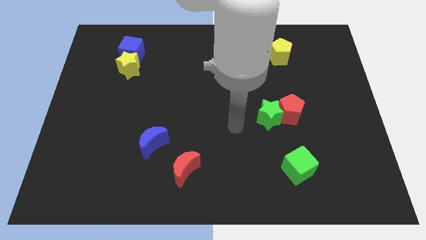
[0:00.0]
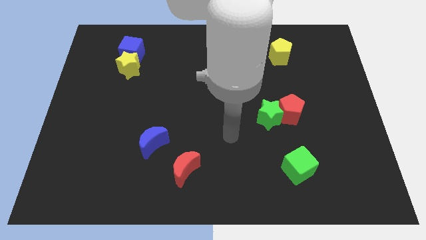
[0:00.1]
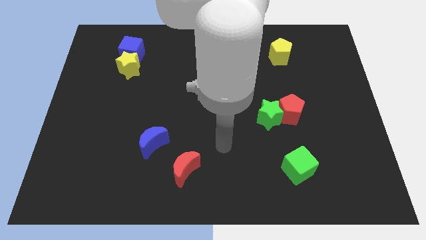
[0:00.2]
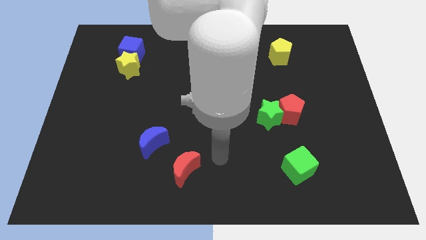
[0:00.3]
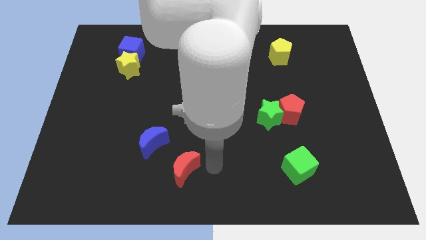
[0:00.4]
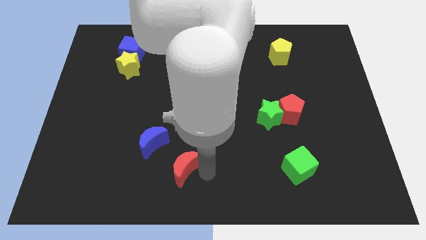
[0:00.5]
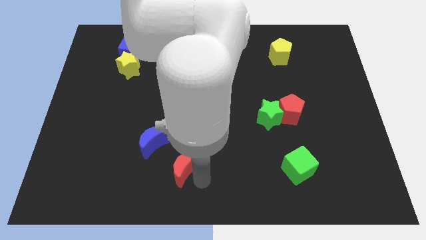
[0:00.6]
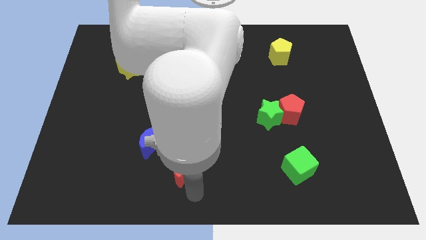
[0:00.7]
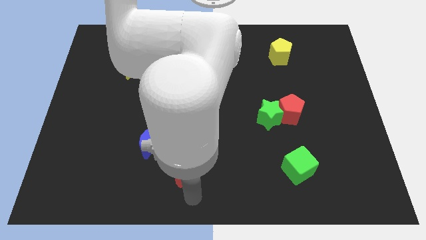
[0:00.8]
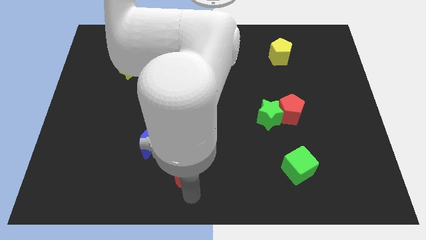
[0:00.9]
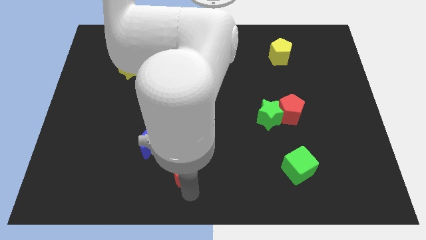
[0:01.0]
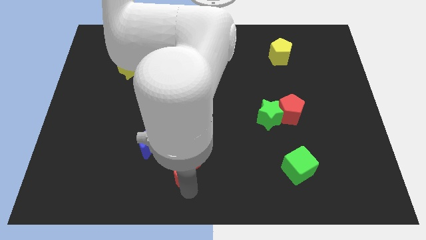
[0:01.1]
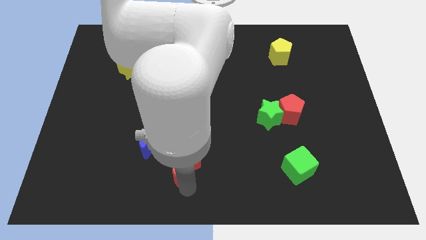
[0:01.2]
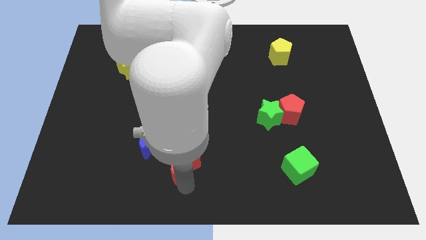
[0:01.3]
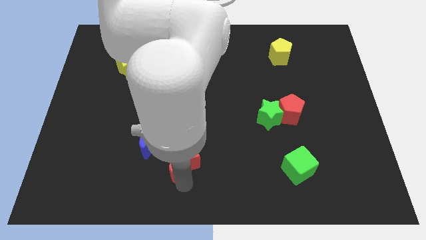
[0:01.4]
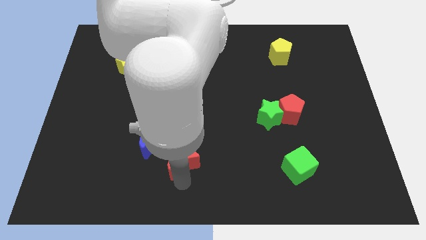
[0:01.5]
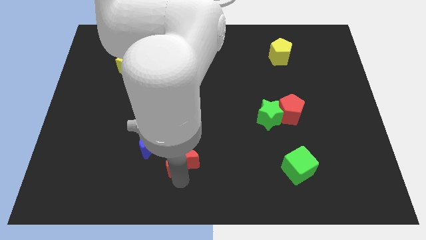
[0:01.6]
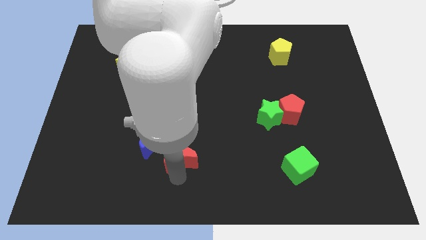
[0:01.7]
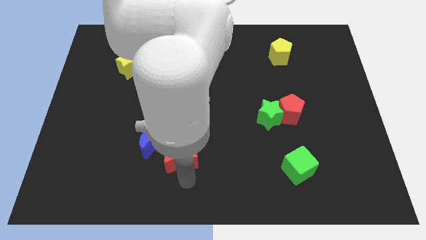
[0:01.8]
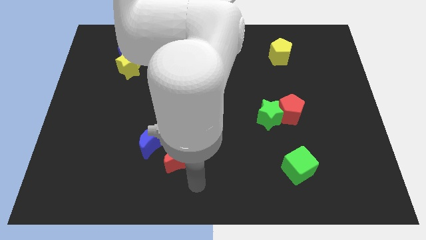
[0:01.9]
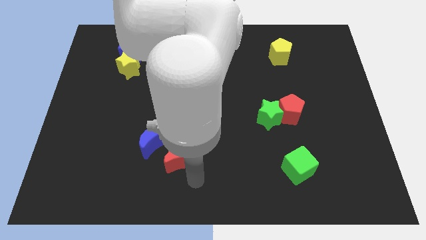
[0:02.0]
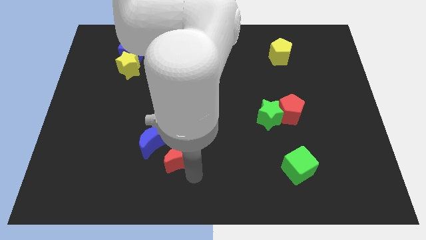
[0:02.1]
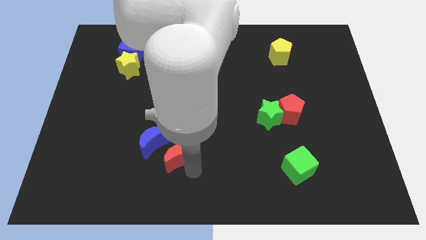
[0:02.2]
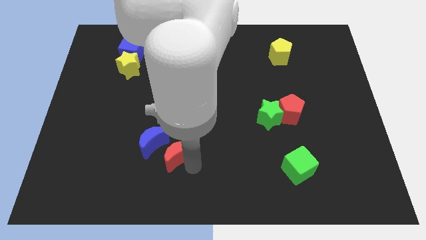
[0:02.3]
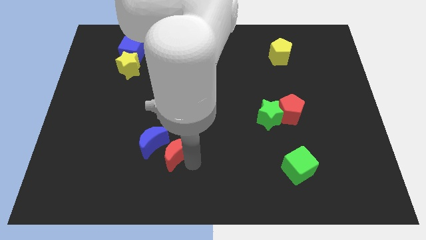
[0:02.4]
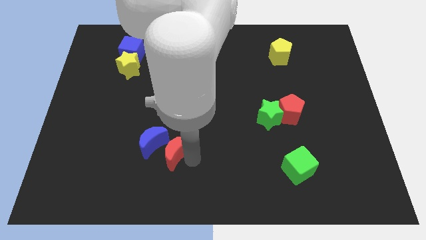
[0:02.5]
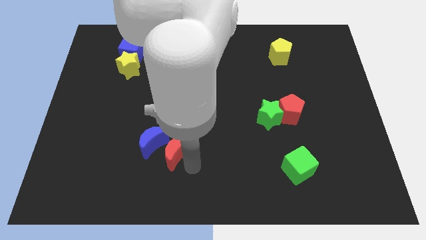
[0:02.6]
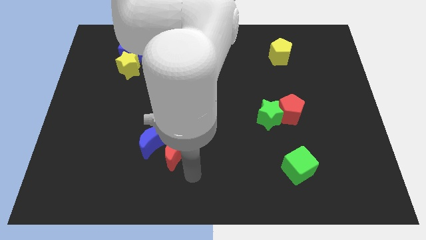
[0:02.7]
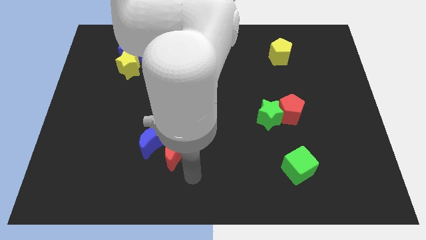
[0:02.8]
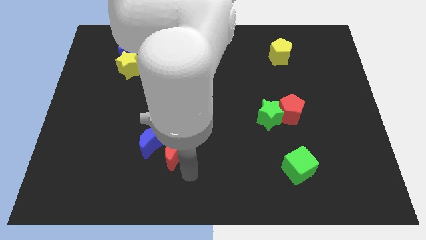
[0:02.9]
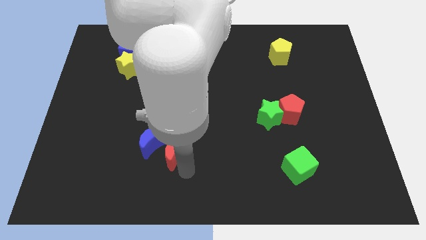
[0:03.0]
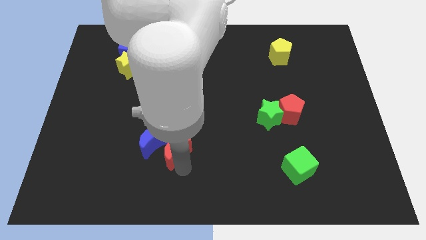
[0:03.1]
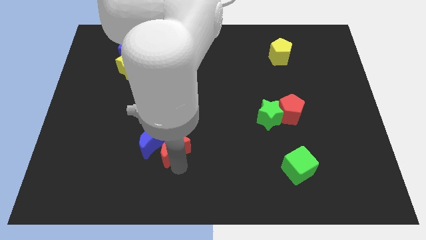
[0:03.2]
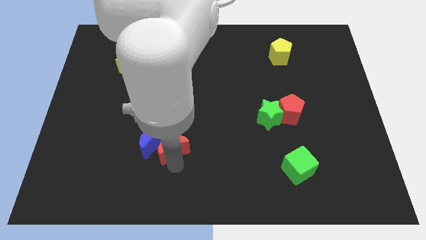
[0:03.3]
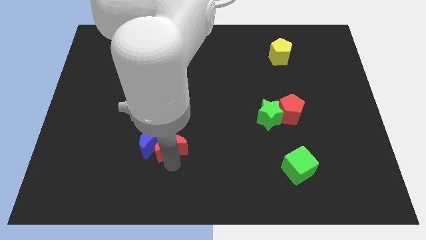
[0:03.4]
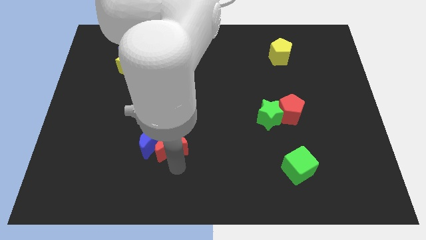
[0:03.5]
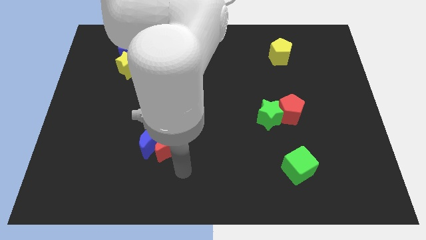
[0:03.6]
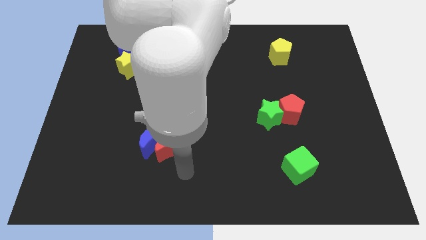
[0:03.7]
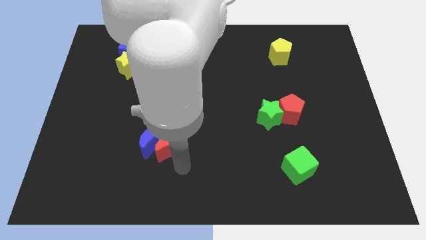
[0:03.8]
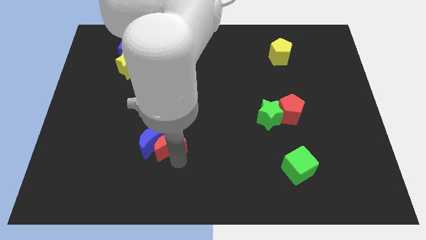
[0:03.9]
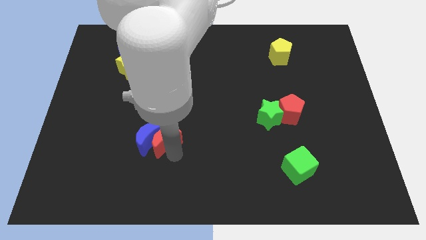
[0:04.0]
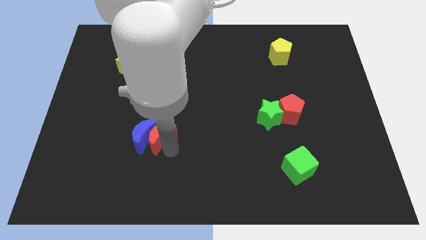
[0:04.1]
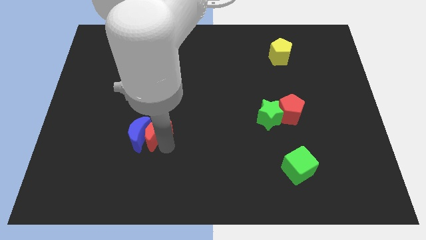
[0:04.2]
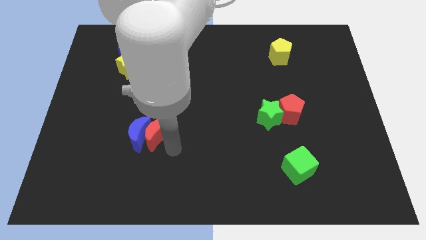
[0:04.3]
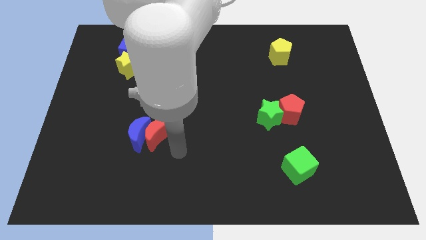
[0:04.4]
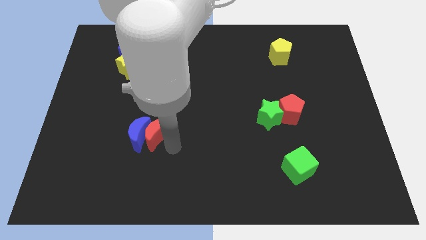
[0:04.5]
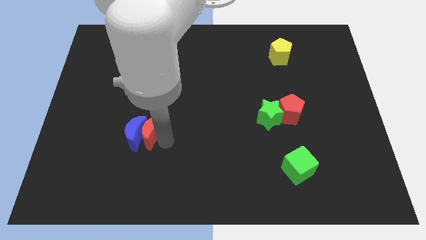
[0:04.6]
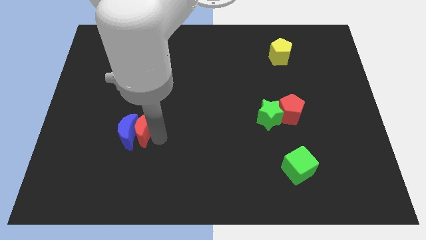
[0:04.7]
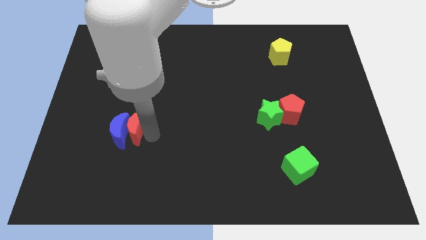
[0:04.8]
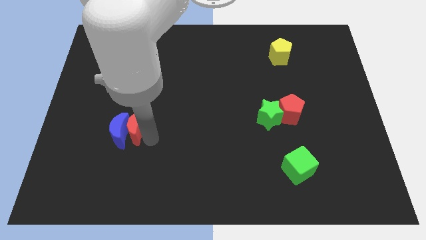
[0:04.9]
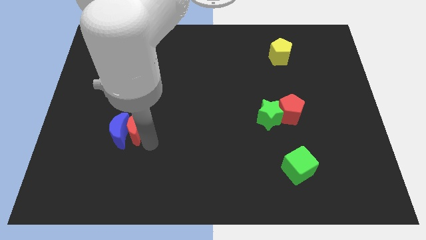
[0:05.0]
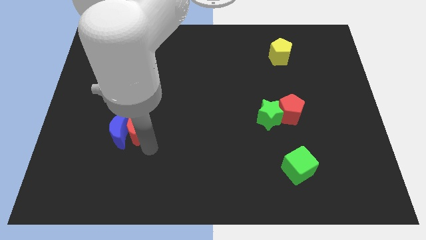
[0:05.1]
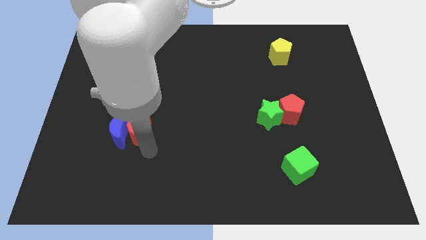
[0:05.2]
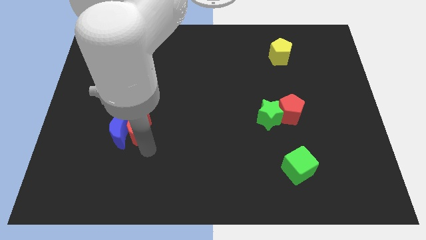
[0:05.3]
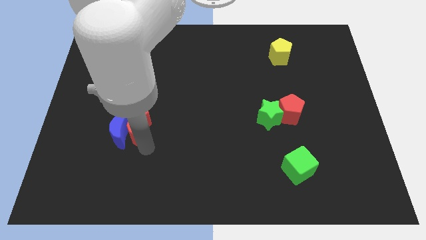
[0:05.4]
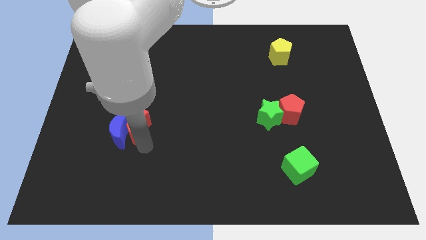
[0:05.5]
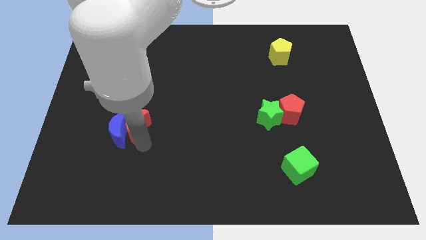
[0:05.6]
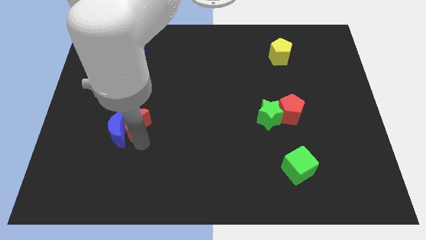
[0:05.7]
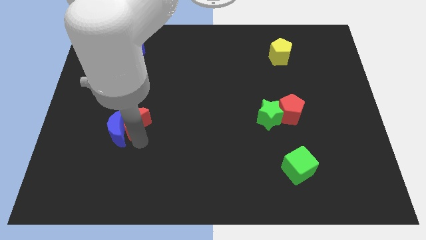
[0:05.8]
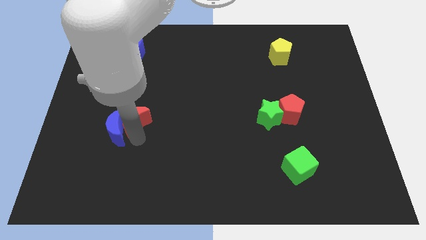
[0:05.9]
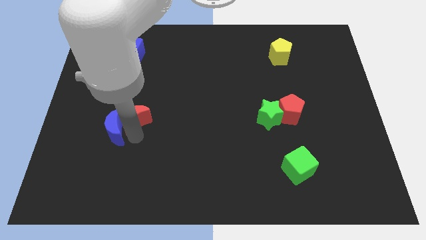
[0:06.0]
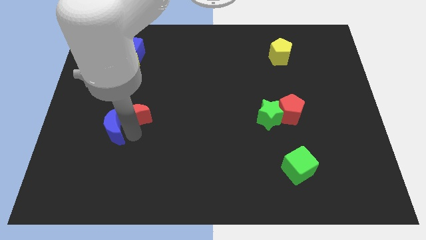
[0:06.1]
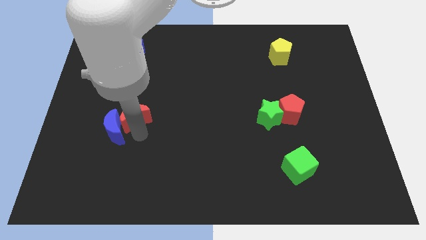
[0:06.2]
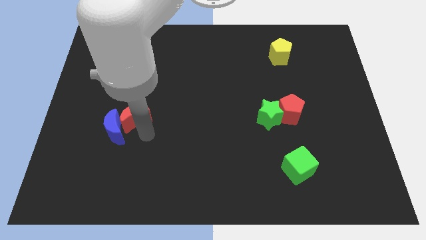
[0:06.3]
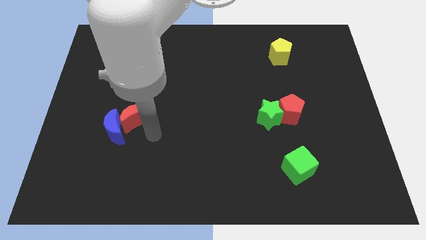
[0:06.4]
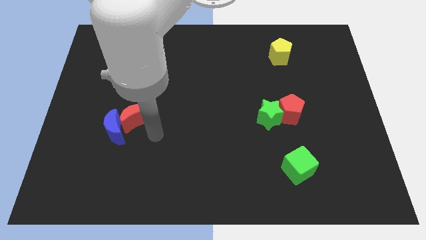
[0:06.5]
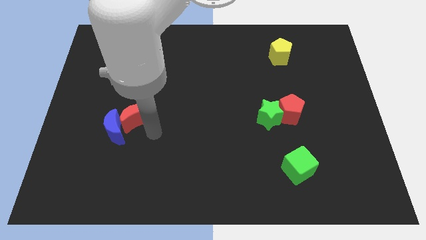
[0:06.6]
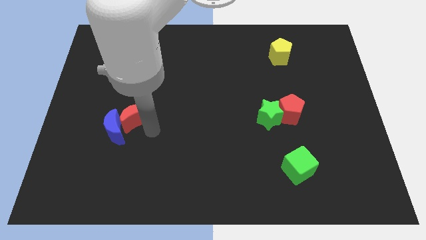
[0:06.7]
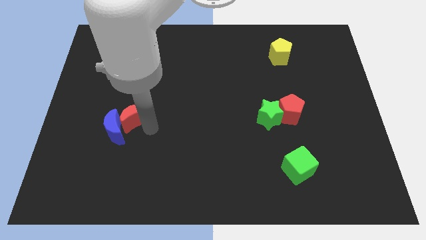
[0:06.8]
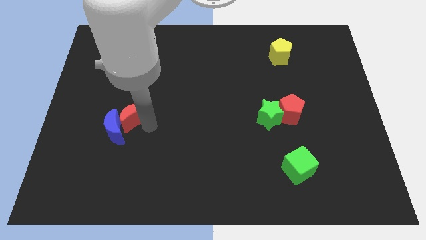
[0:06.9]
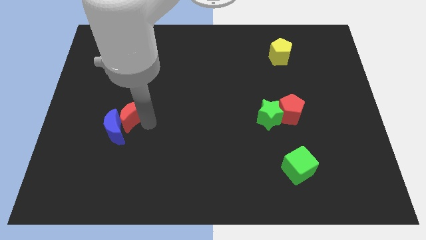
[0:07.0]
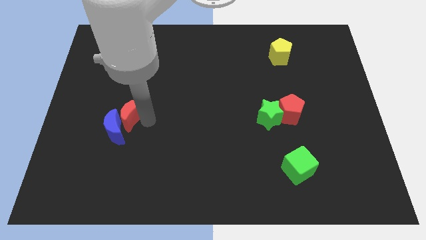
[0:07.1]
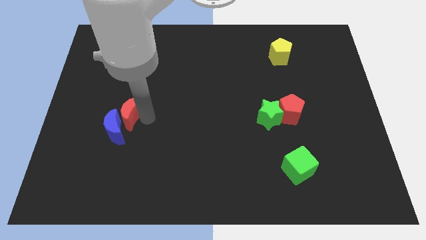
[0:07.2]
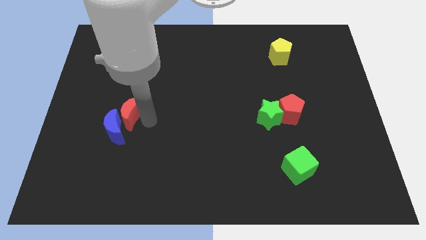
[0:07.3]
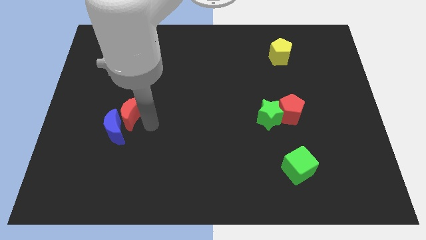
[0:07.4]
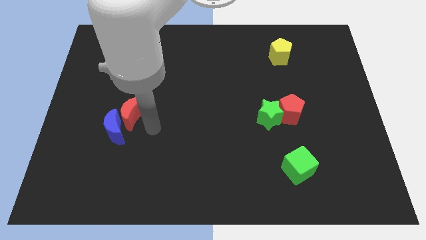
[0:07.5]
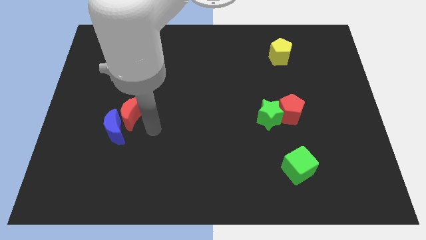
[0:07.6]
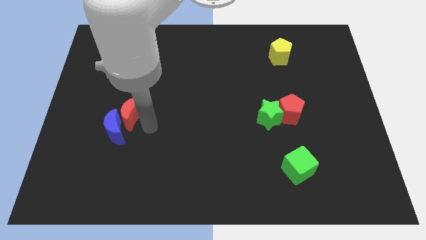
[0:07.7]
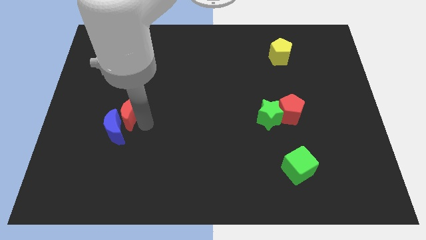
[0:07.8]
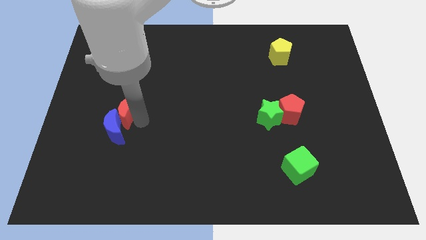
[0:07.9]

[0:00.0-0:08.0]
move the red moon up and to the left diagonally
